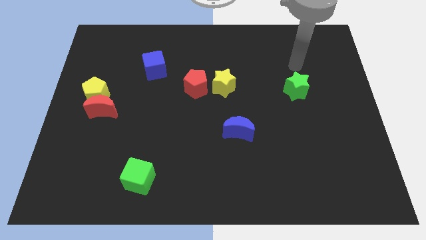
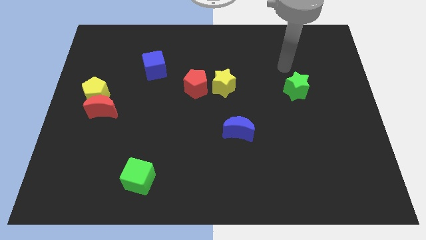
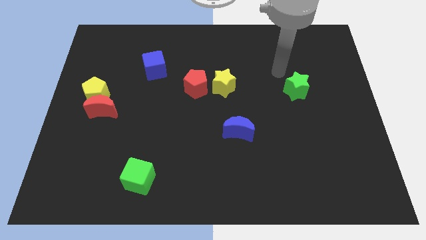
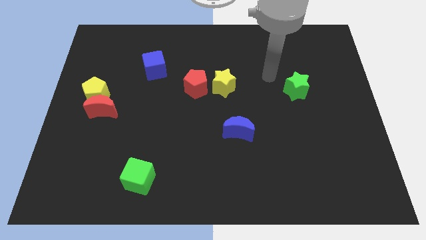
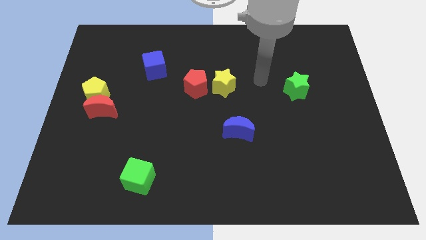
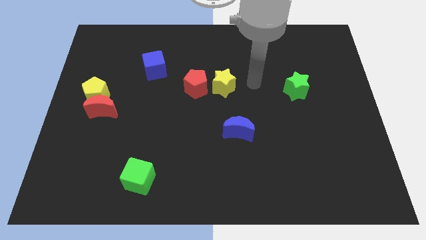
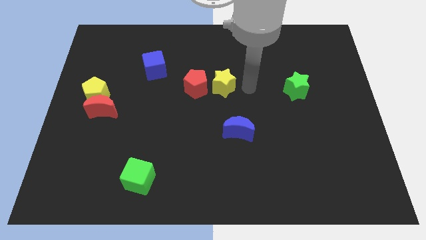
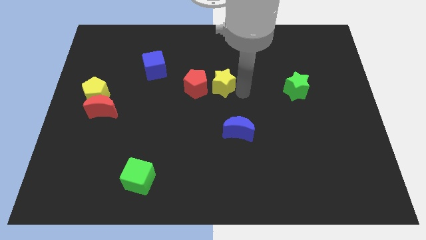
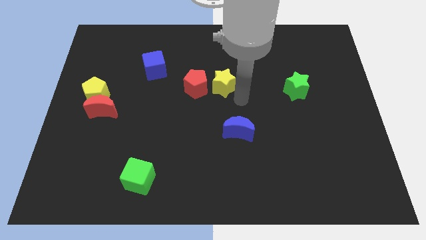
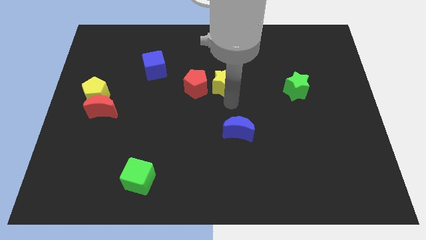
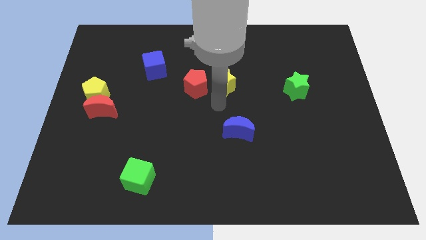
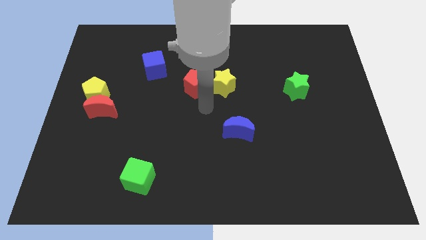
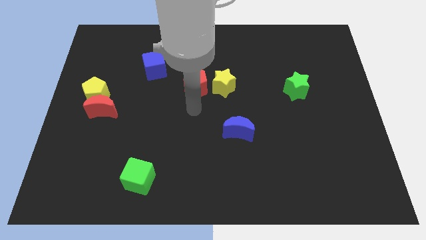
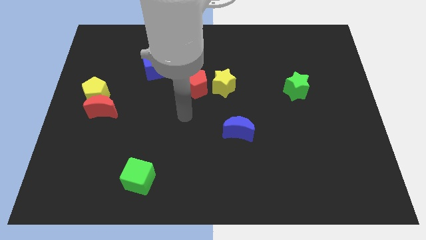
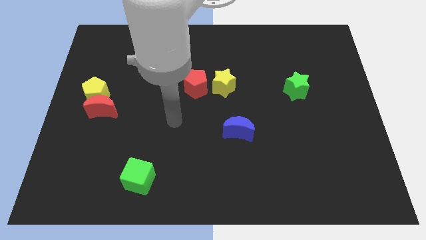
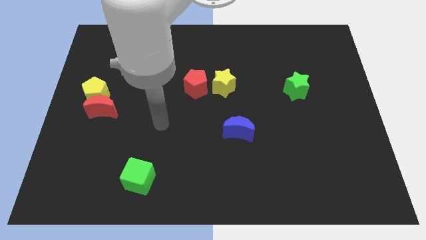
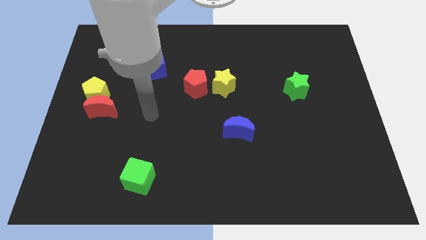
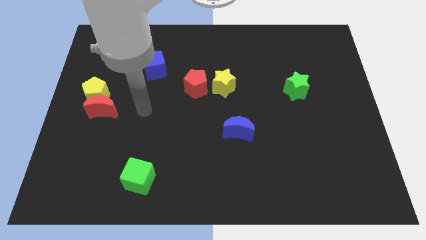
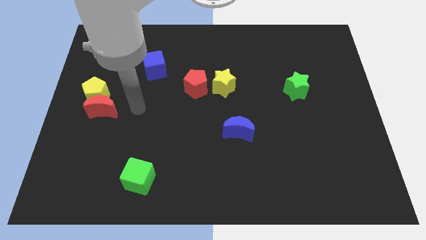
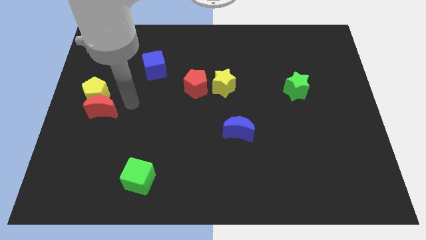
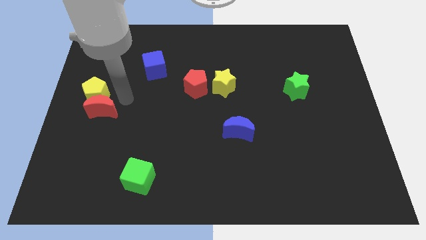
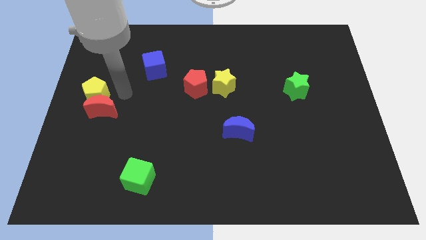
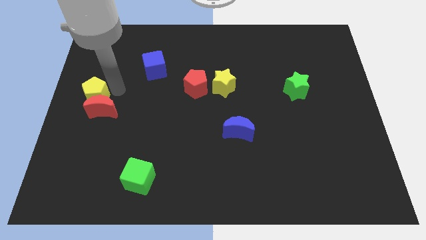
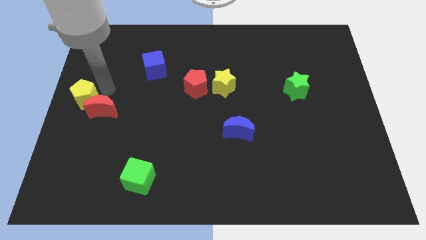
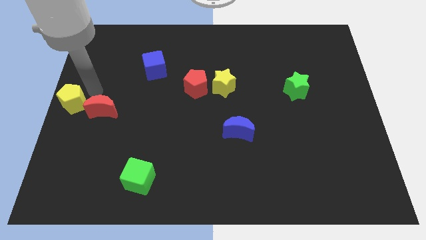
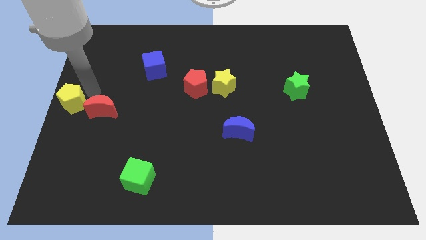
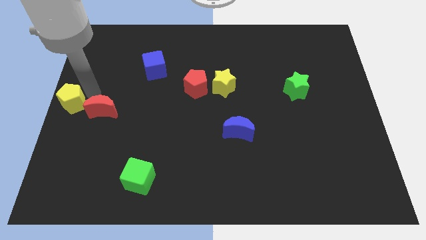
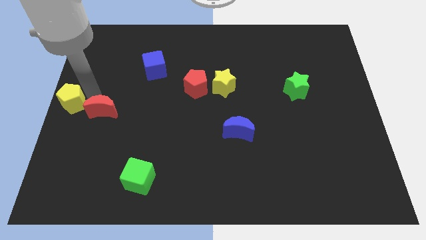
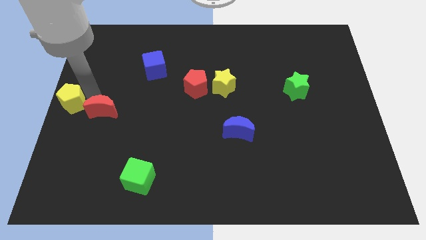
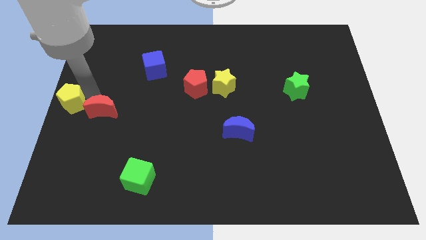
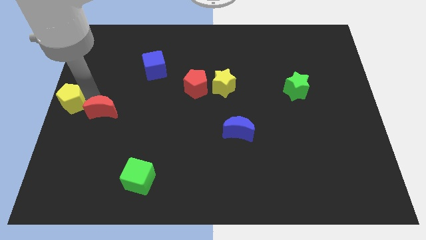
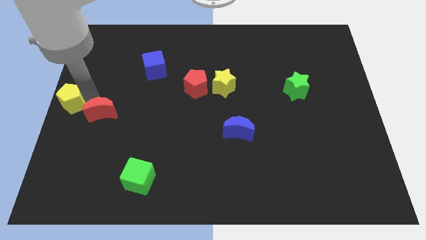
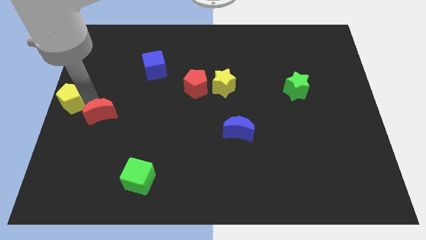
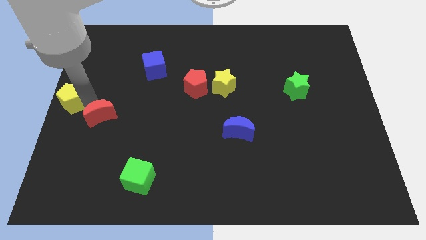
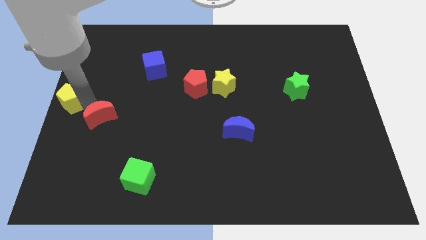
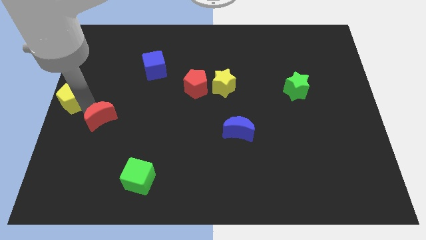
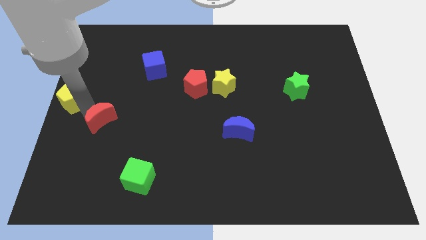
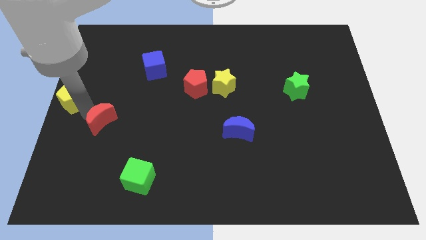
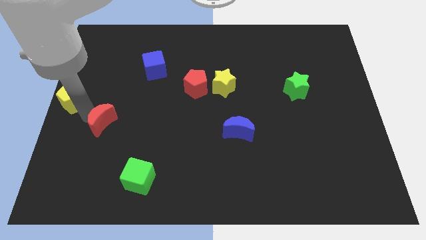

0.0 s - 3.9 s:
move the red moon away from the yellow pentagon

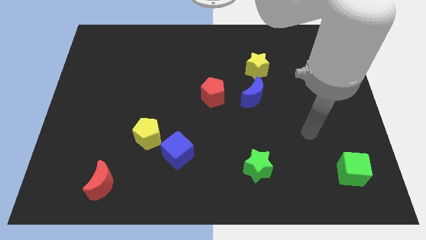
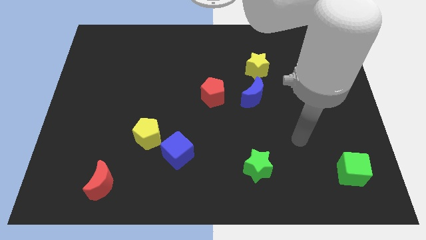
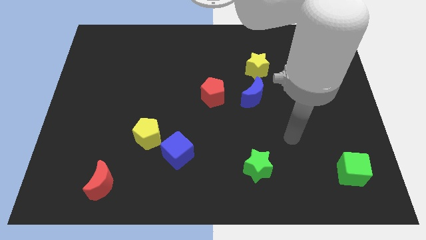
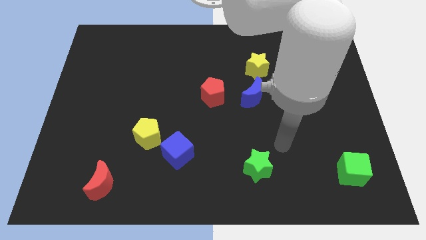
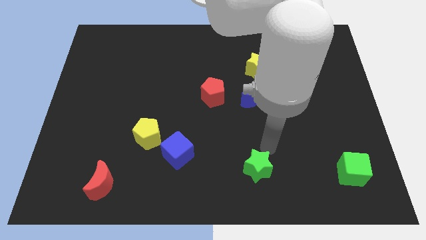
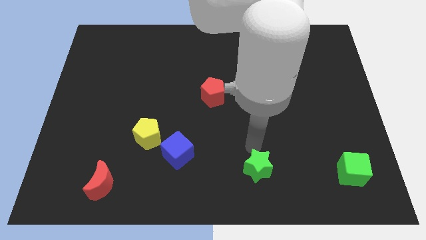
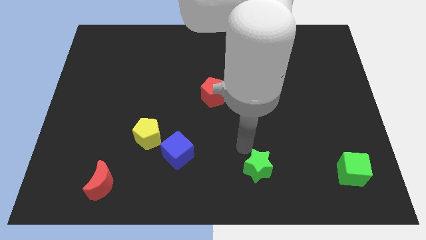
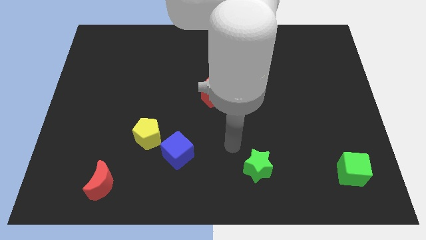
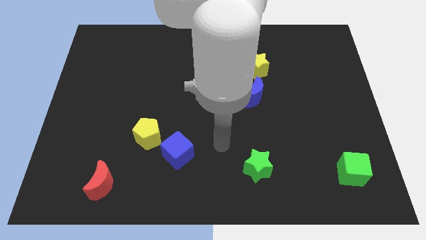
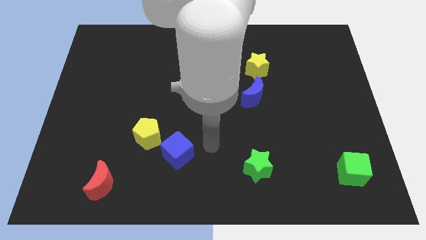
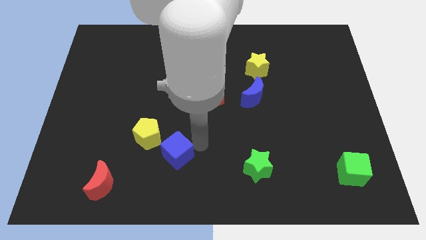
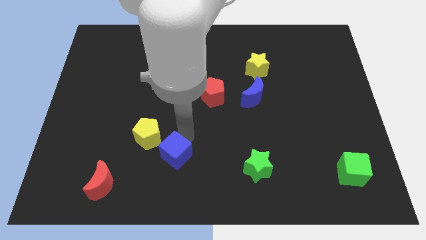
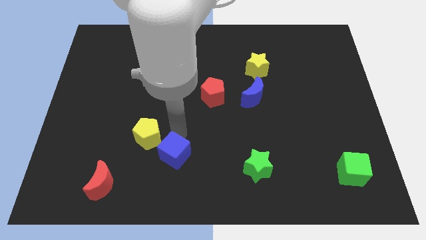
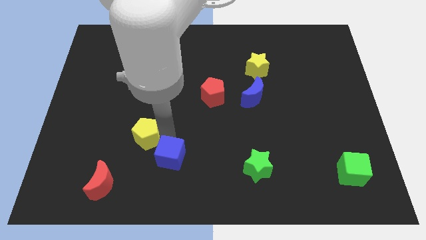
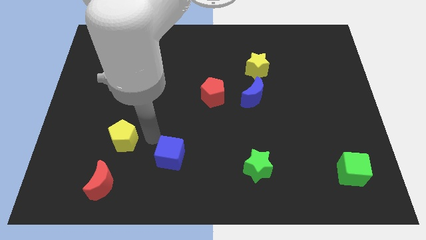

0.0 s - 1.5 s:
pull the blue cube apart from the yellow pentagon

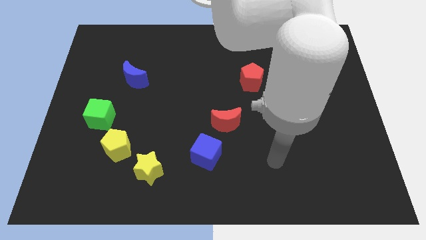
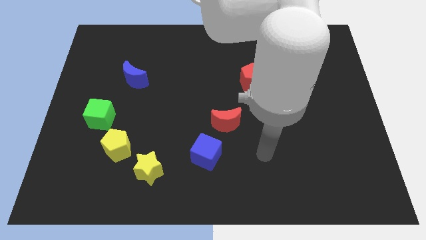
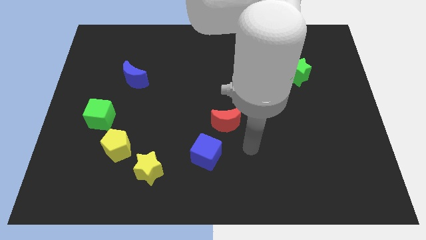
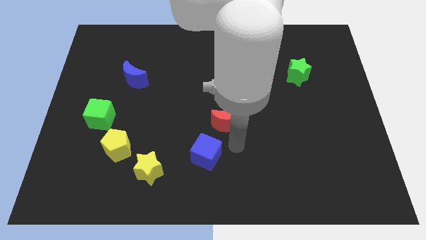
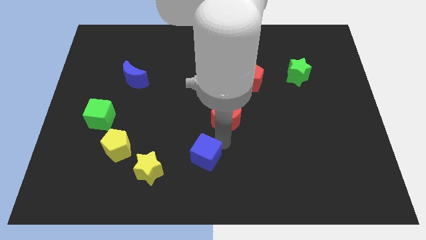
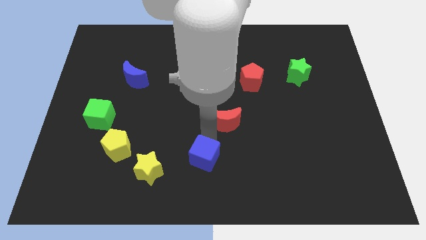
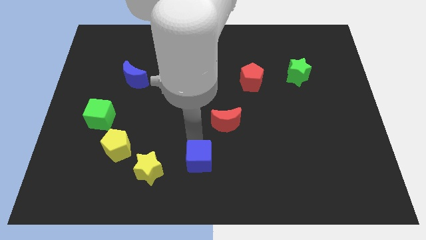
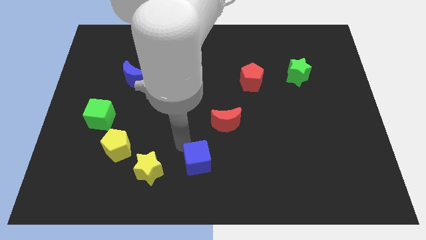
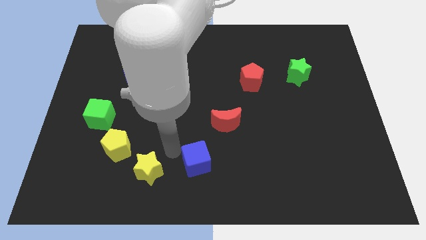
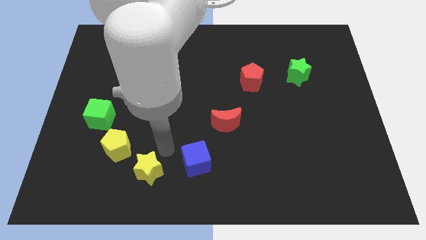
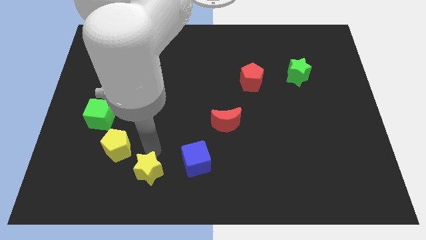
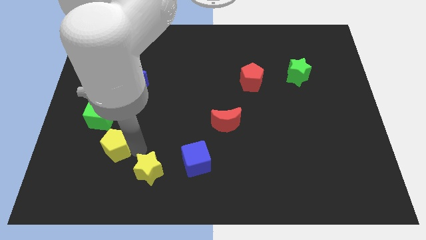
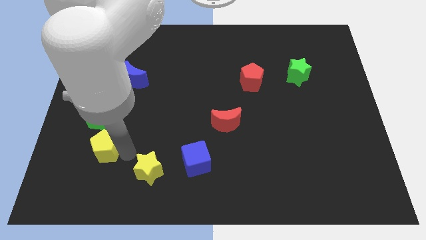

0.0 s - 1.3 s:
pull the yellow star apart from the yellow pentagon

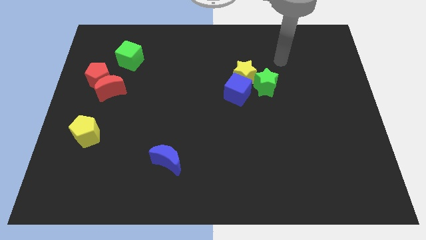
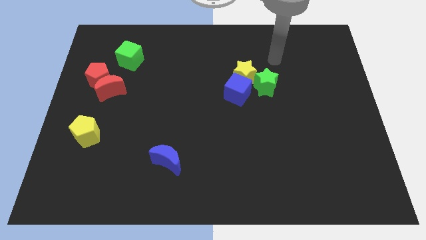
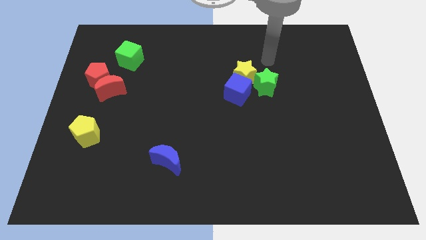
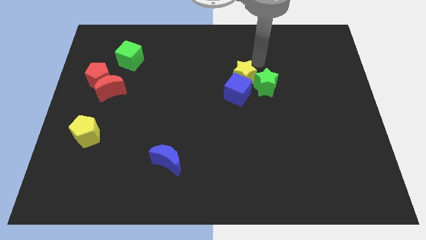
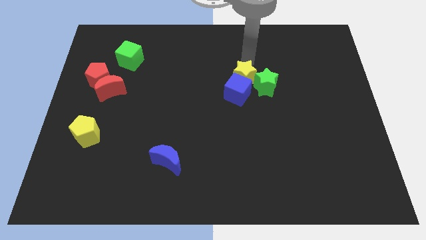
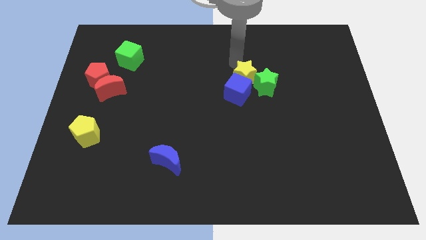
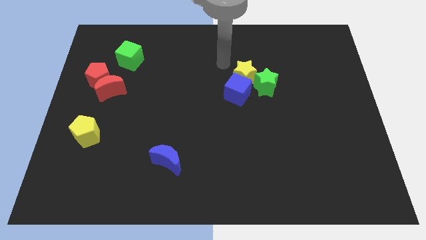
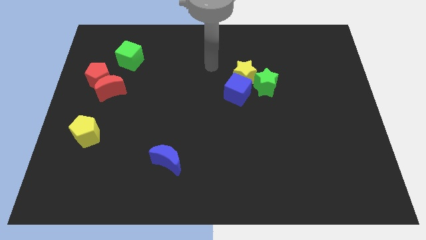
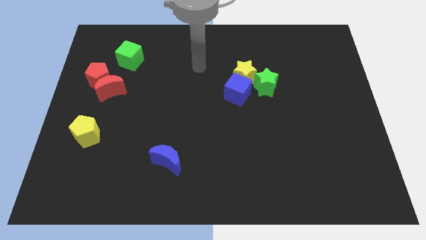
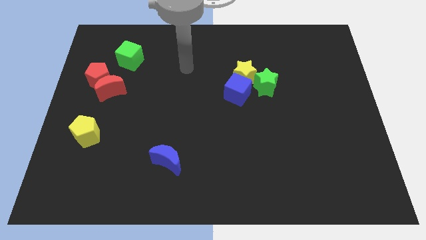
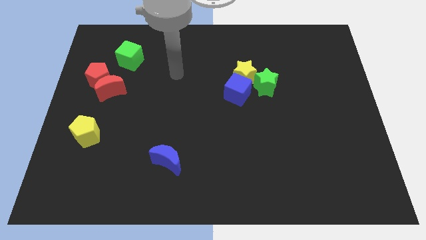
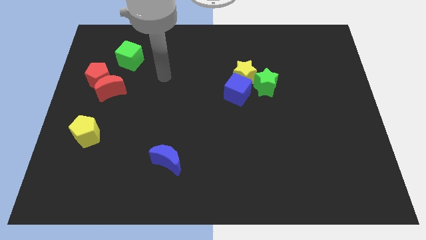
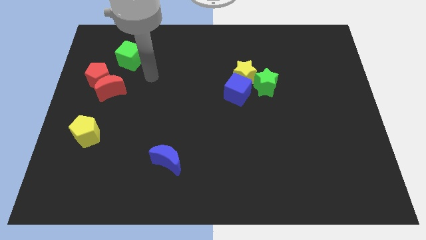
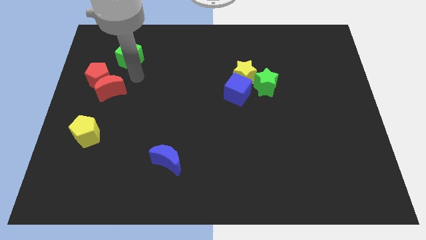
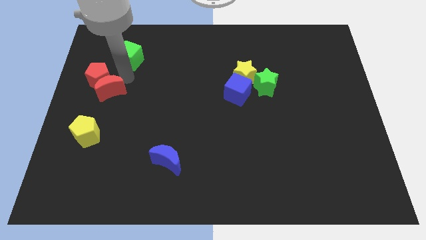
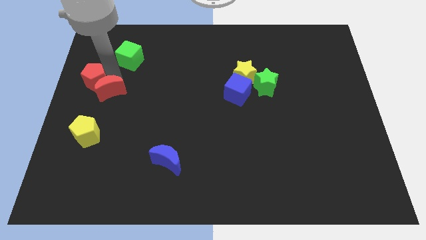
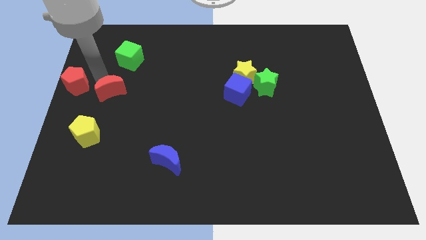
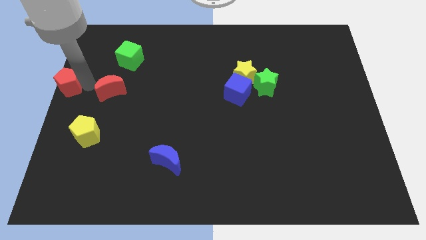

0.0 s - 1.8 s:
separate the red moon from the red pentagon

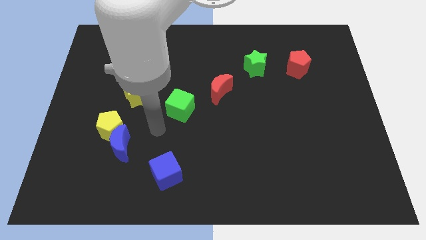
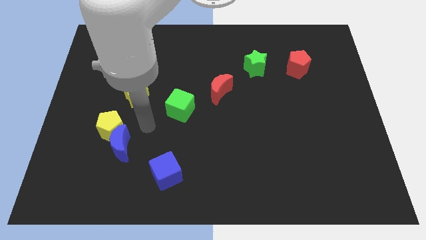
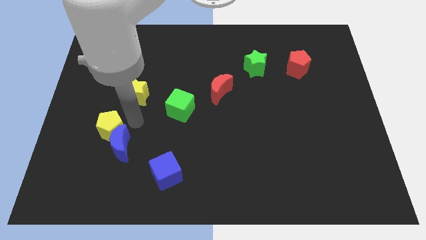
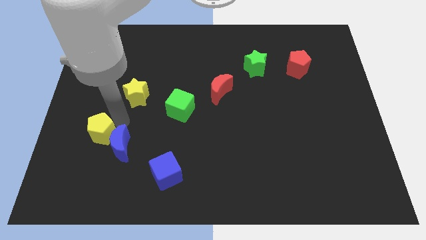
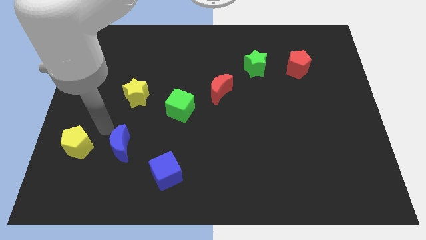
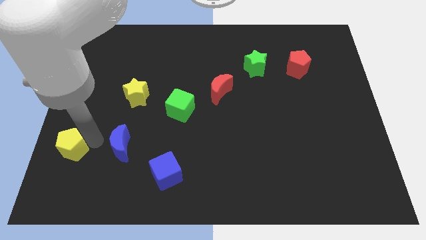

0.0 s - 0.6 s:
move the blue moon away from the yellow pentagon

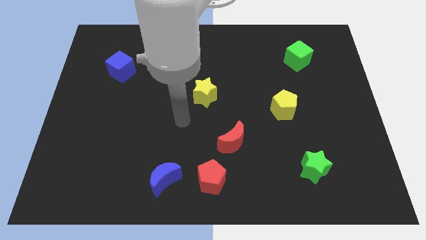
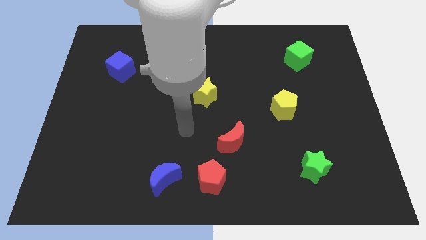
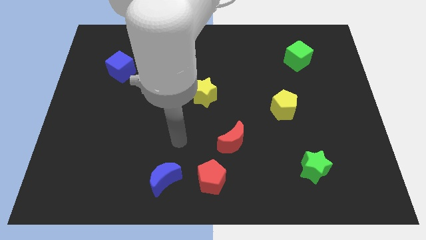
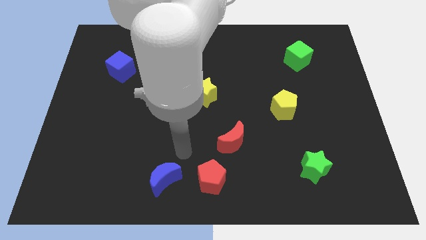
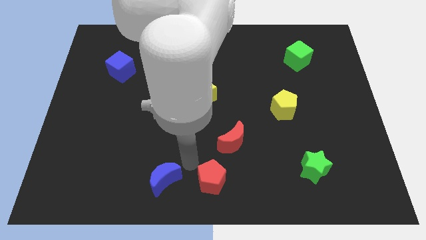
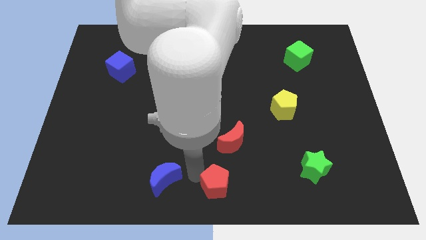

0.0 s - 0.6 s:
move the blue moon away from the red pentagon
